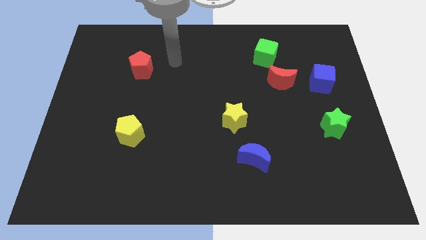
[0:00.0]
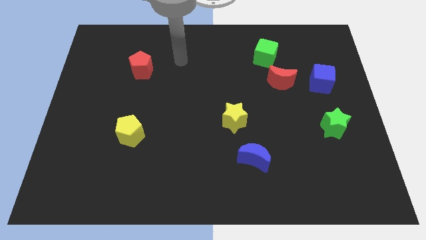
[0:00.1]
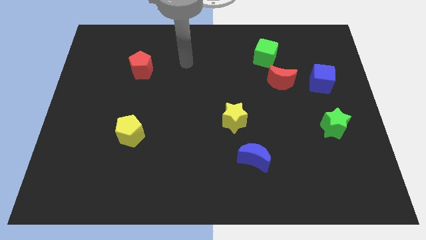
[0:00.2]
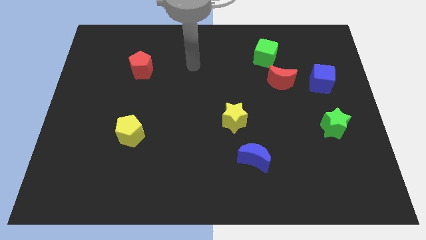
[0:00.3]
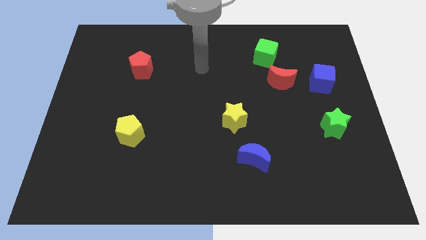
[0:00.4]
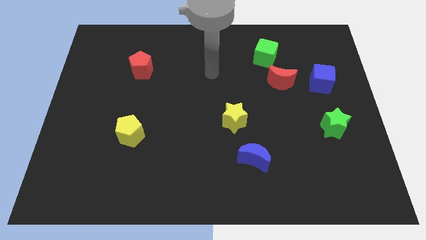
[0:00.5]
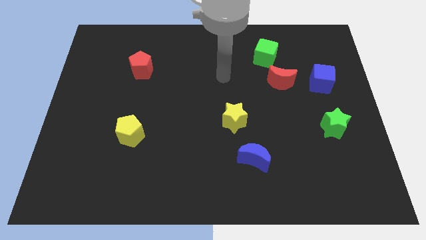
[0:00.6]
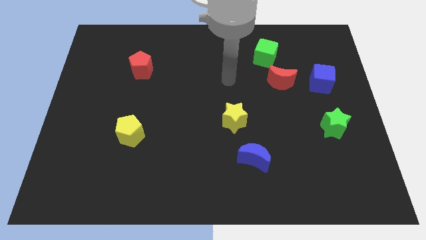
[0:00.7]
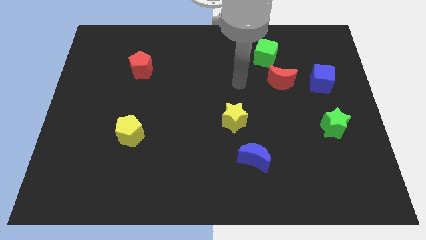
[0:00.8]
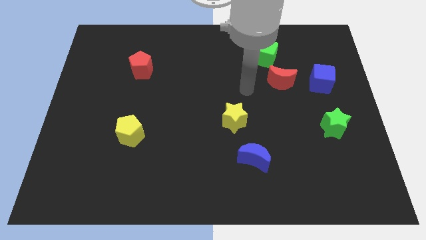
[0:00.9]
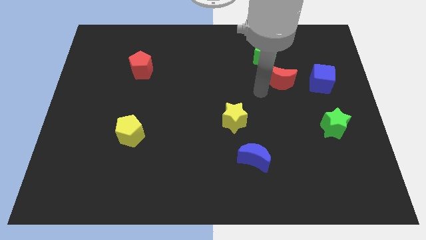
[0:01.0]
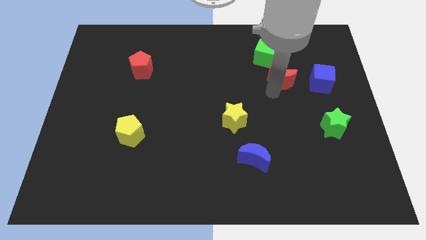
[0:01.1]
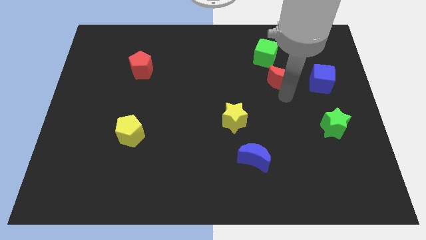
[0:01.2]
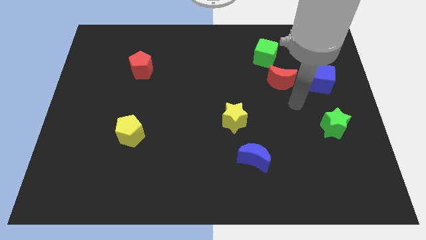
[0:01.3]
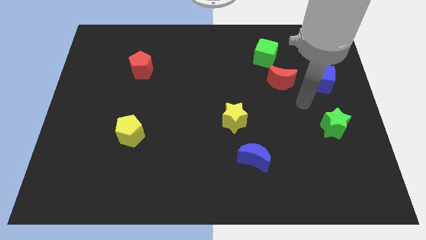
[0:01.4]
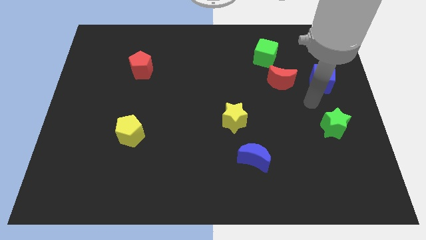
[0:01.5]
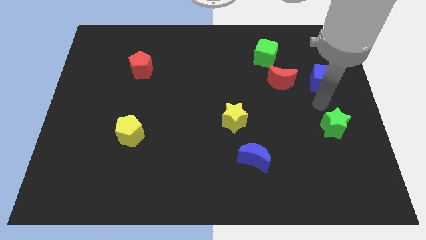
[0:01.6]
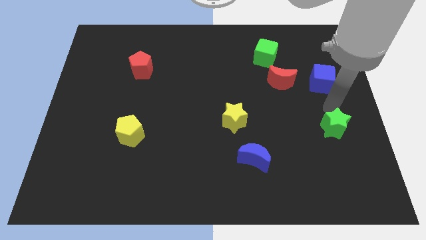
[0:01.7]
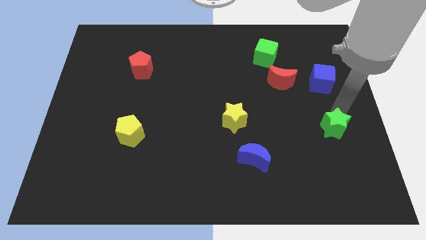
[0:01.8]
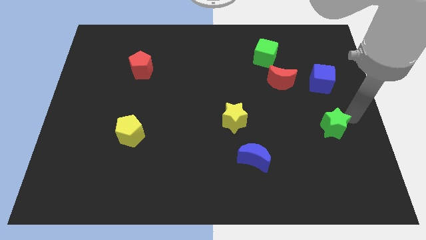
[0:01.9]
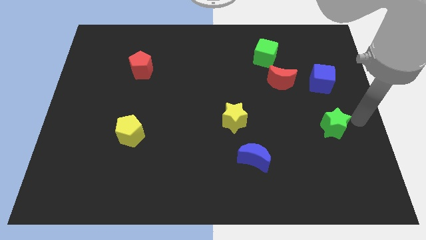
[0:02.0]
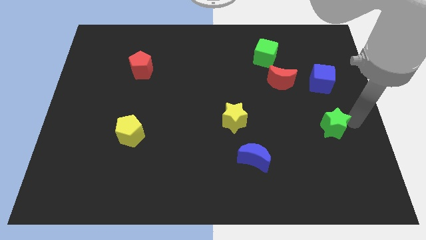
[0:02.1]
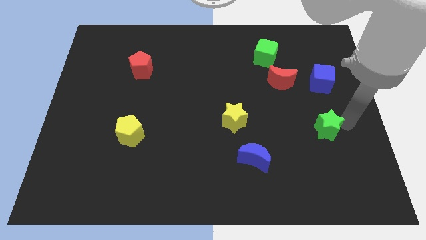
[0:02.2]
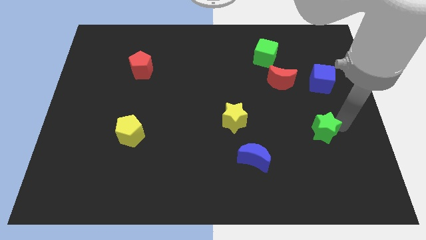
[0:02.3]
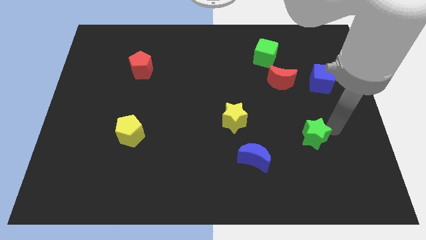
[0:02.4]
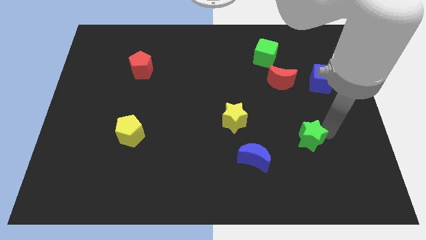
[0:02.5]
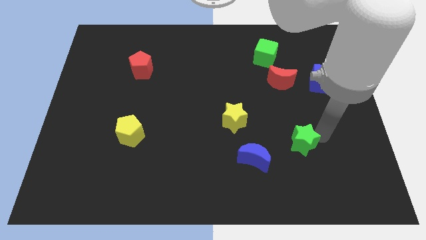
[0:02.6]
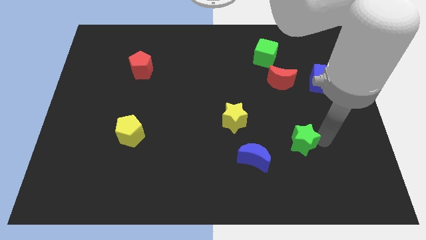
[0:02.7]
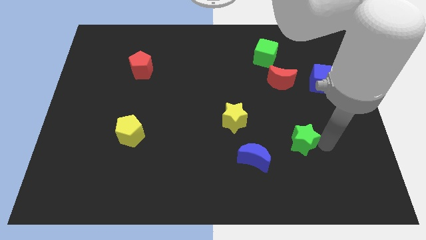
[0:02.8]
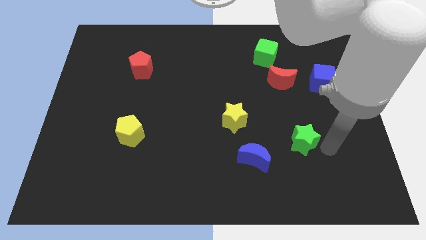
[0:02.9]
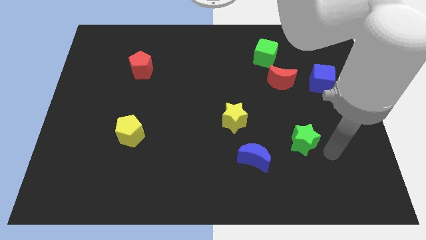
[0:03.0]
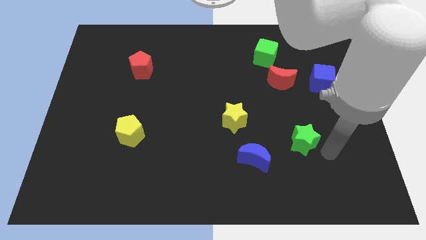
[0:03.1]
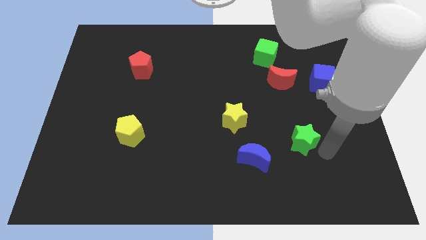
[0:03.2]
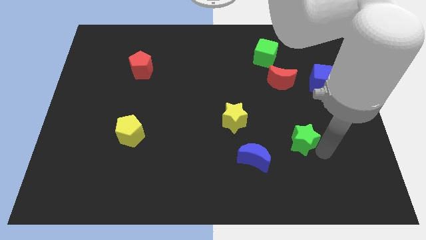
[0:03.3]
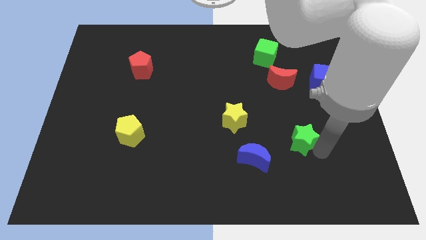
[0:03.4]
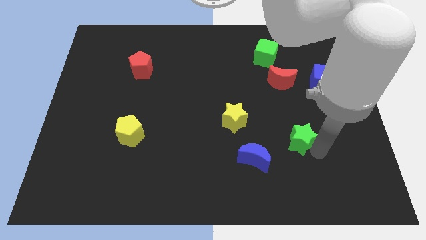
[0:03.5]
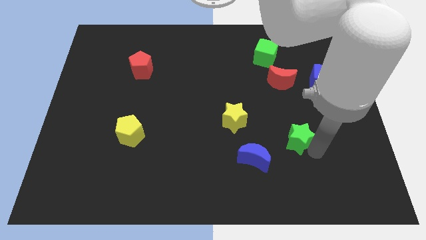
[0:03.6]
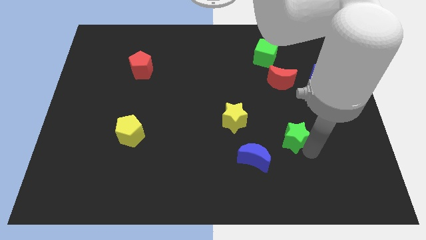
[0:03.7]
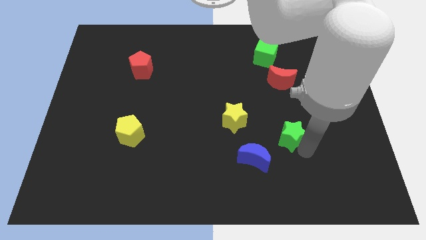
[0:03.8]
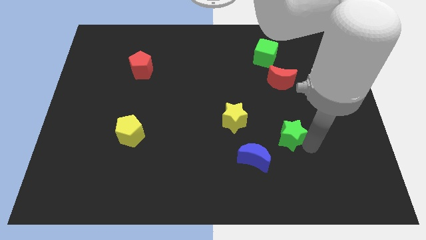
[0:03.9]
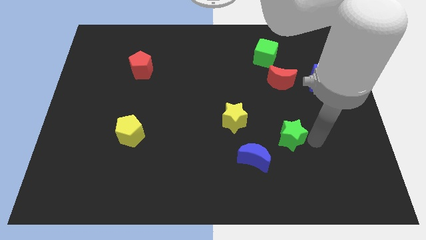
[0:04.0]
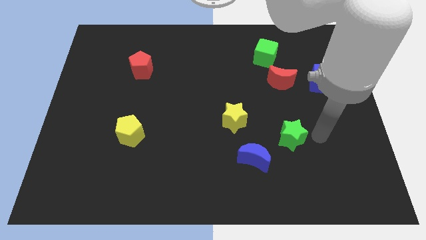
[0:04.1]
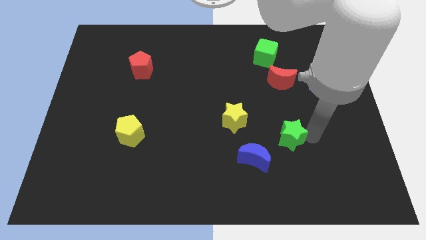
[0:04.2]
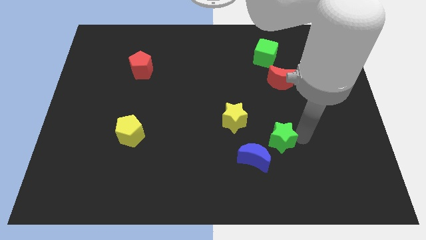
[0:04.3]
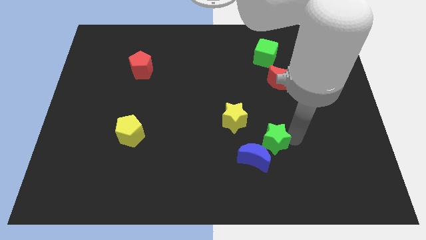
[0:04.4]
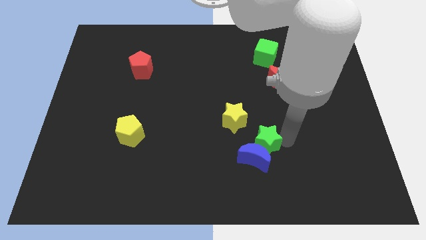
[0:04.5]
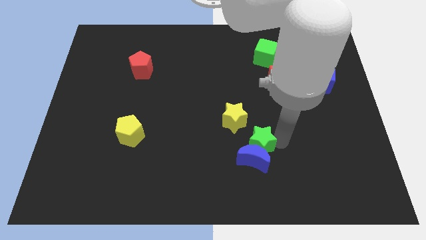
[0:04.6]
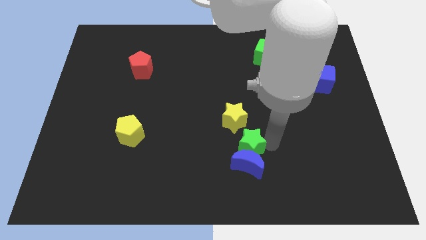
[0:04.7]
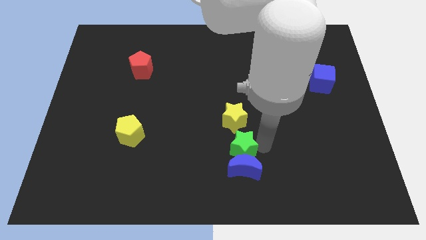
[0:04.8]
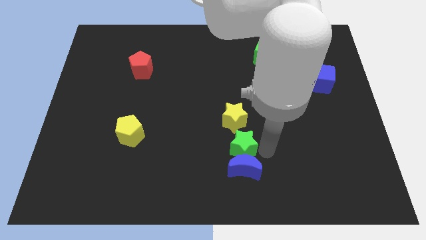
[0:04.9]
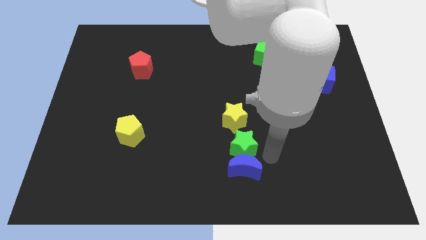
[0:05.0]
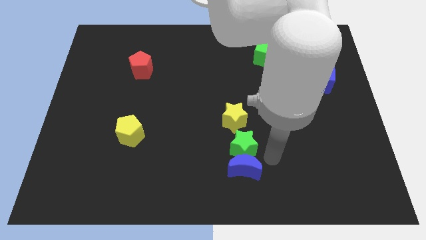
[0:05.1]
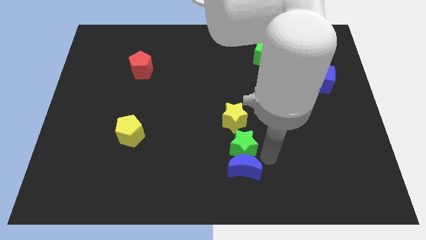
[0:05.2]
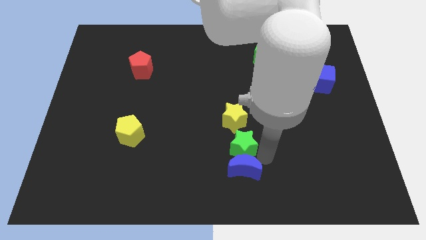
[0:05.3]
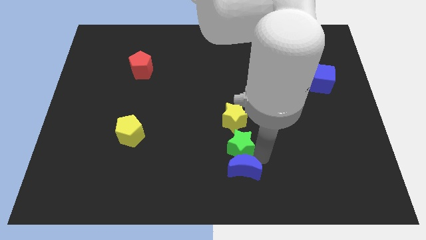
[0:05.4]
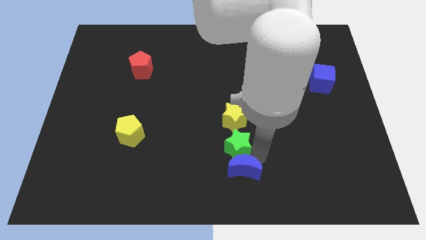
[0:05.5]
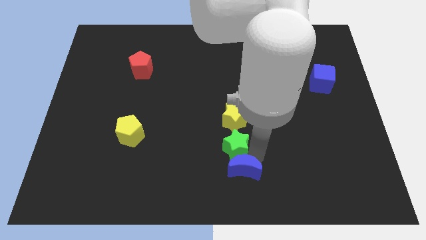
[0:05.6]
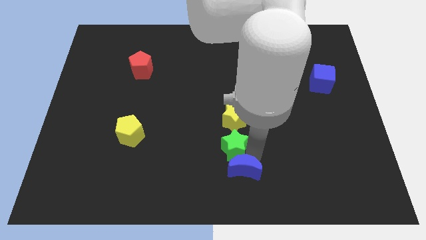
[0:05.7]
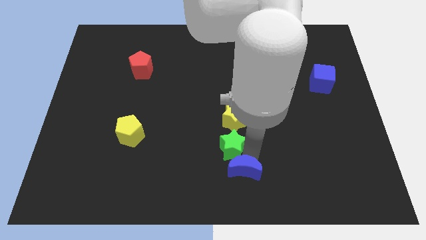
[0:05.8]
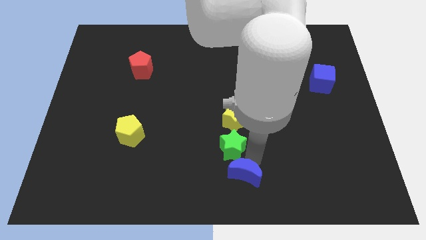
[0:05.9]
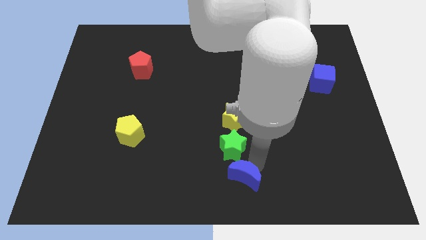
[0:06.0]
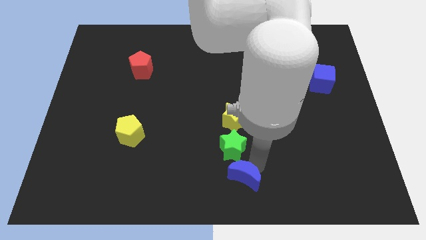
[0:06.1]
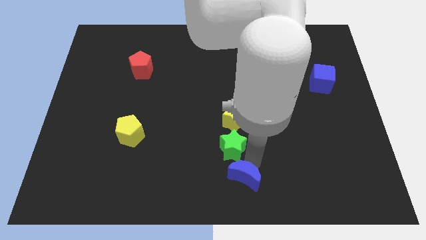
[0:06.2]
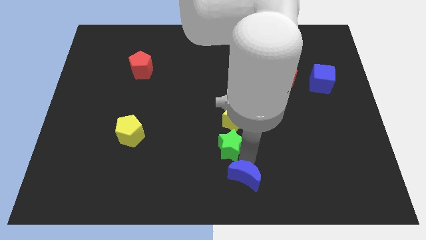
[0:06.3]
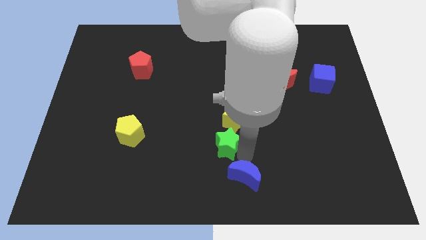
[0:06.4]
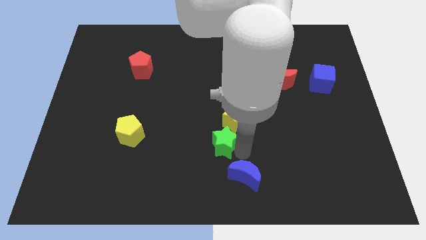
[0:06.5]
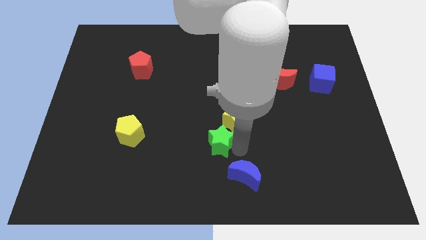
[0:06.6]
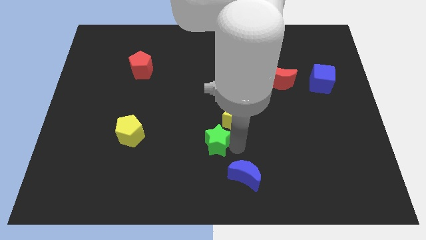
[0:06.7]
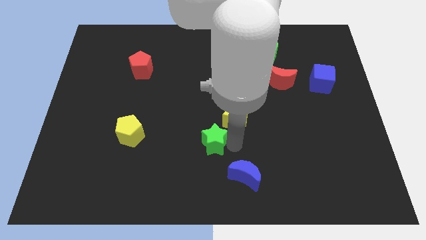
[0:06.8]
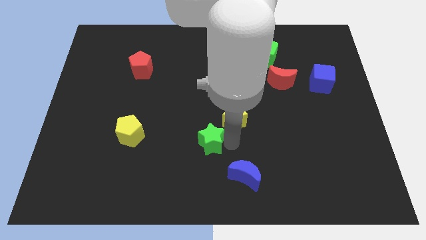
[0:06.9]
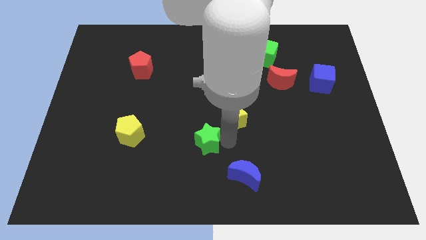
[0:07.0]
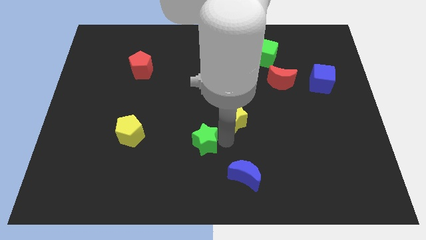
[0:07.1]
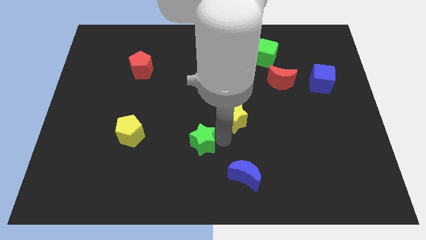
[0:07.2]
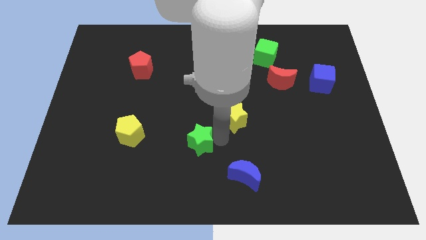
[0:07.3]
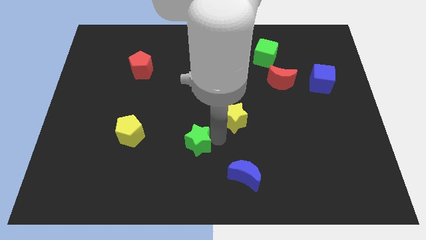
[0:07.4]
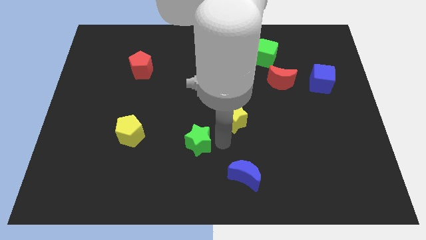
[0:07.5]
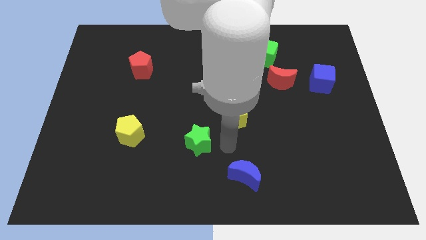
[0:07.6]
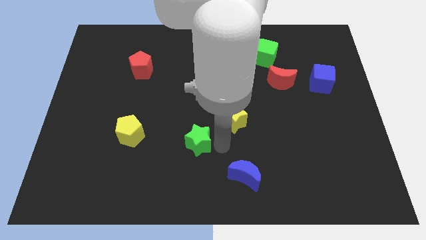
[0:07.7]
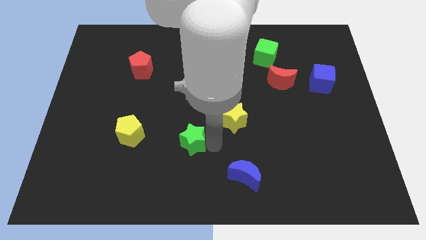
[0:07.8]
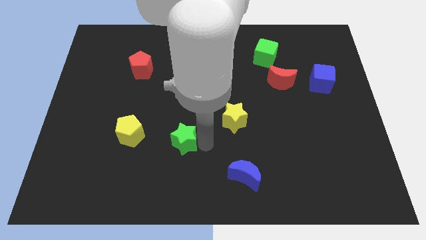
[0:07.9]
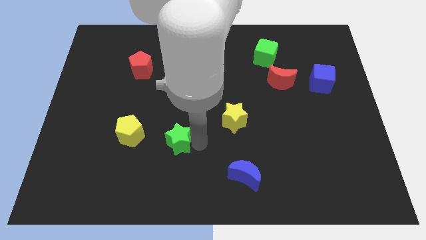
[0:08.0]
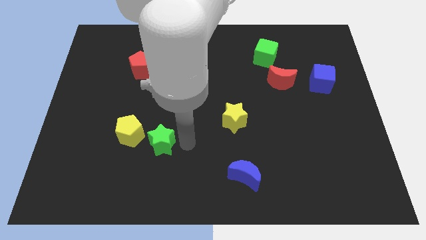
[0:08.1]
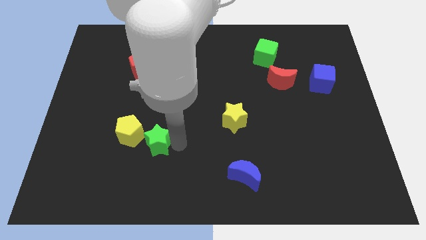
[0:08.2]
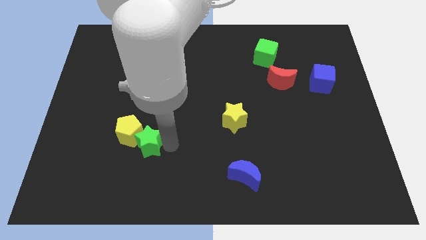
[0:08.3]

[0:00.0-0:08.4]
put the green star to the yellow pentagon
